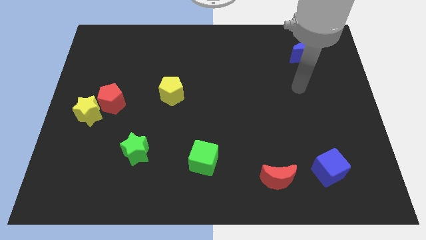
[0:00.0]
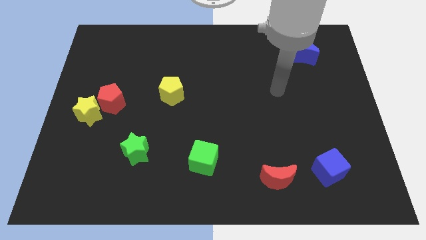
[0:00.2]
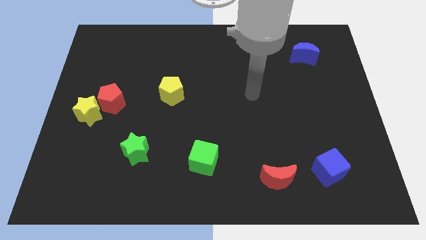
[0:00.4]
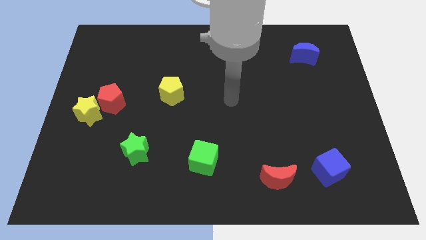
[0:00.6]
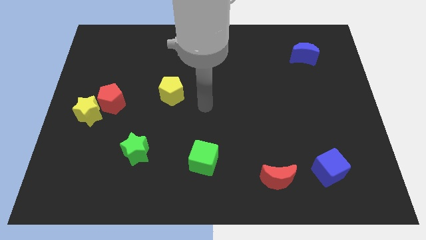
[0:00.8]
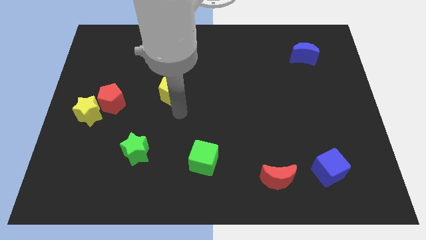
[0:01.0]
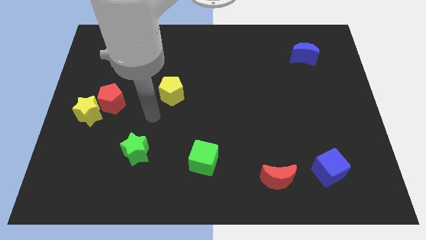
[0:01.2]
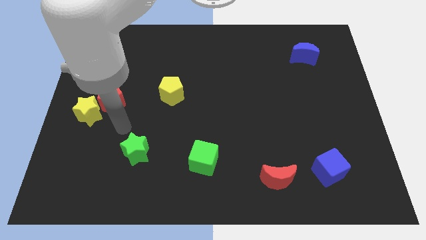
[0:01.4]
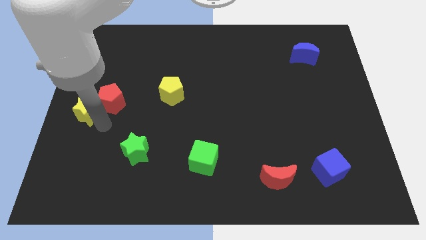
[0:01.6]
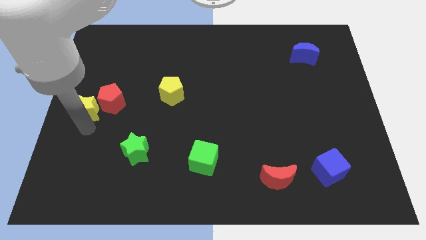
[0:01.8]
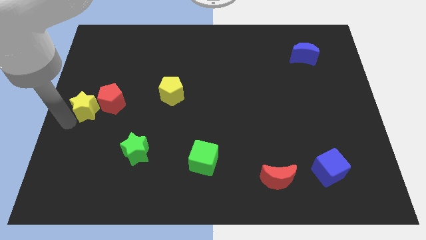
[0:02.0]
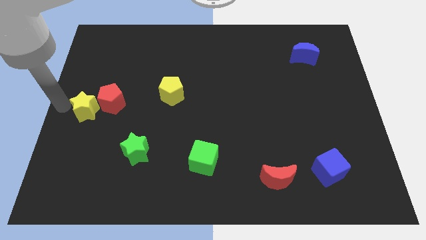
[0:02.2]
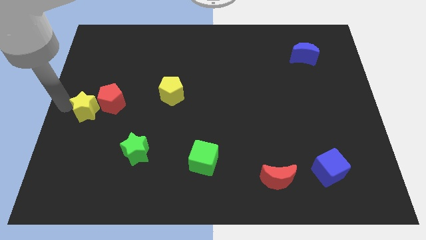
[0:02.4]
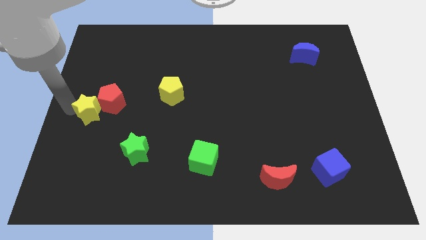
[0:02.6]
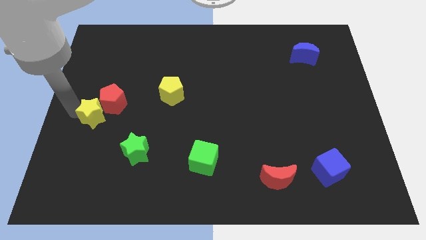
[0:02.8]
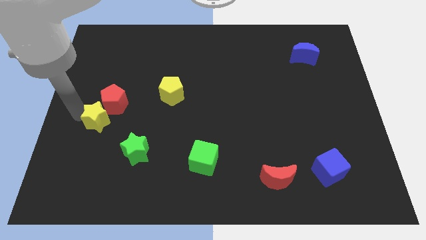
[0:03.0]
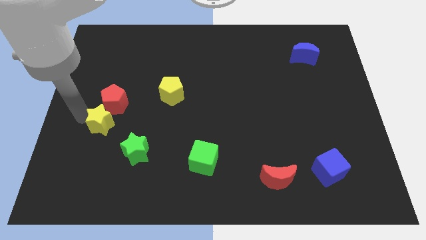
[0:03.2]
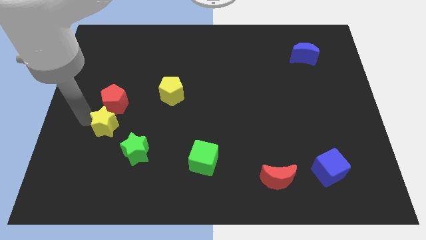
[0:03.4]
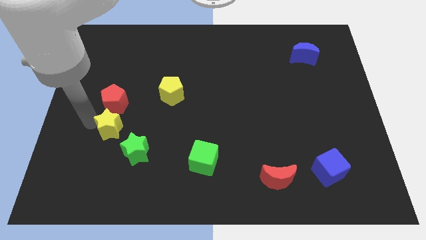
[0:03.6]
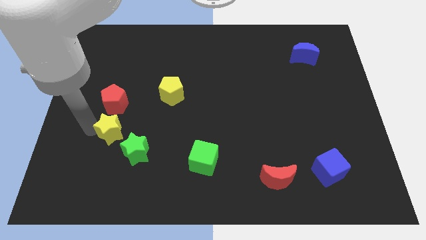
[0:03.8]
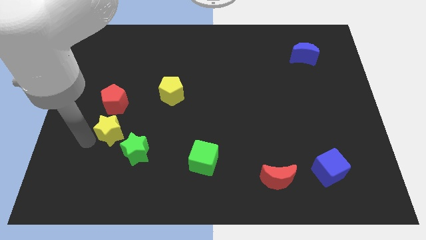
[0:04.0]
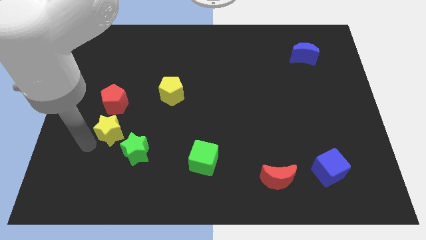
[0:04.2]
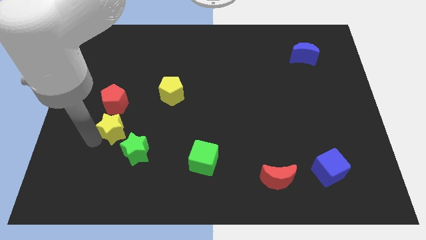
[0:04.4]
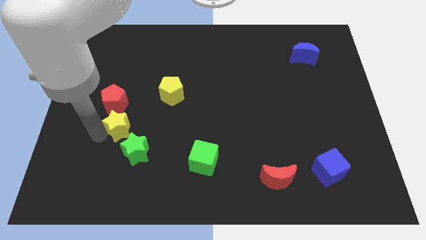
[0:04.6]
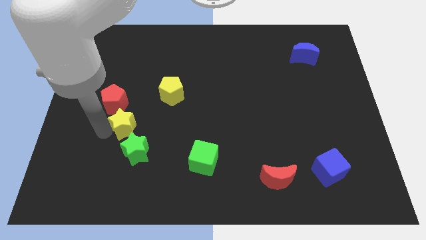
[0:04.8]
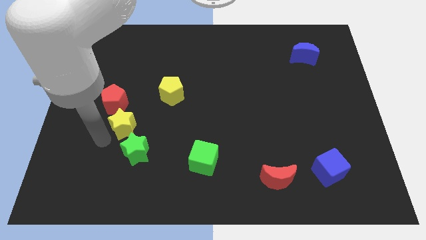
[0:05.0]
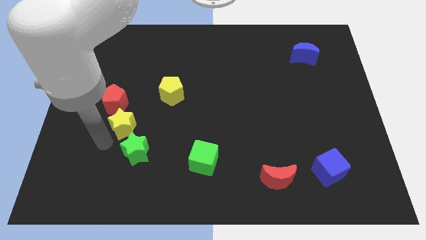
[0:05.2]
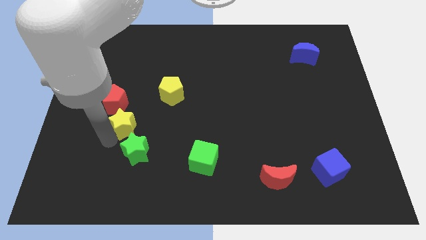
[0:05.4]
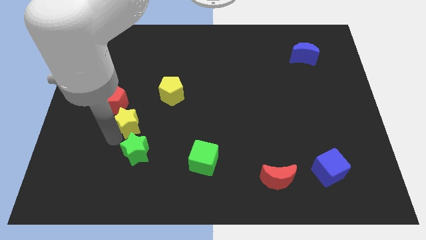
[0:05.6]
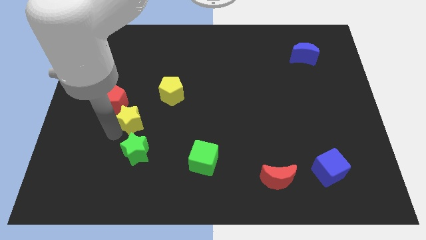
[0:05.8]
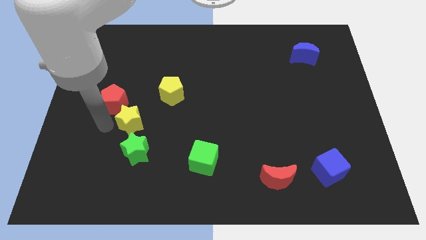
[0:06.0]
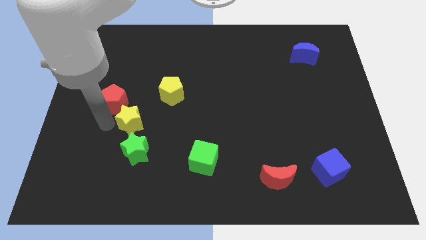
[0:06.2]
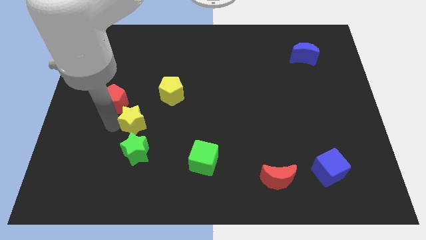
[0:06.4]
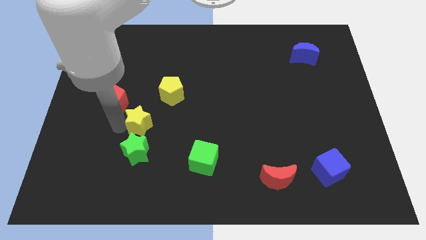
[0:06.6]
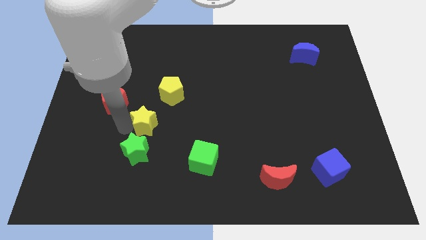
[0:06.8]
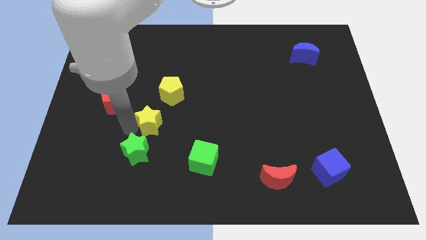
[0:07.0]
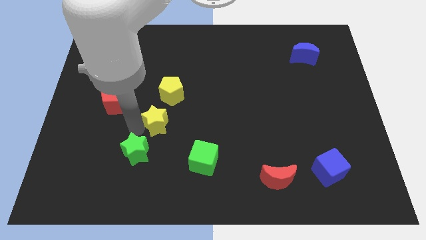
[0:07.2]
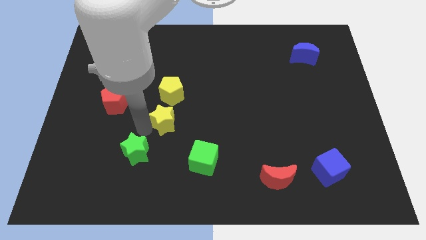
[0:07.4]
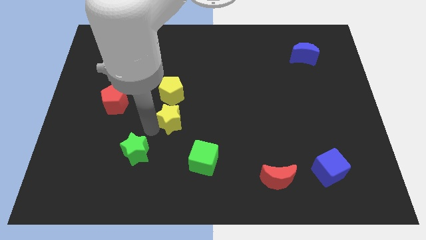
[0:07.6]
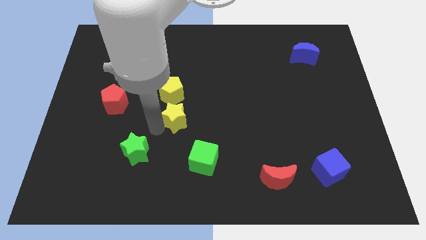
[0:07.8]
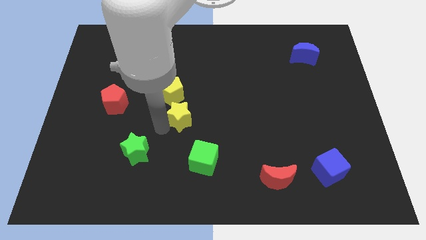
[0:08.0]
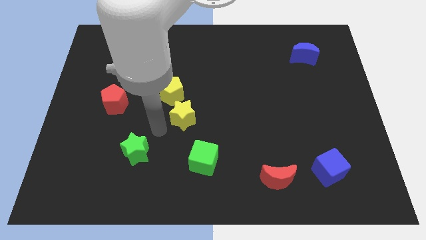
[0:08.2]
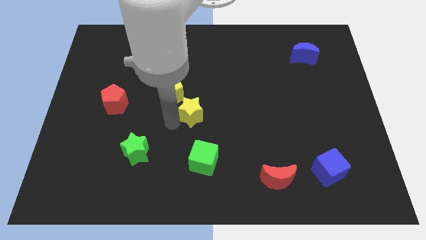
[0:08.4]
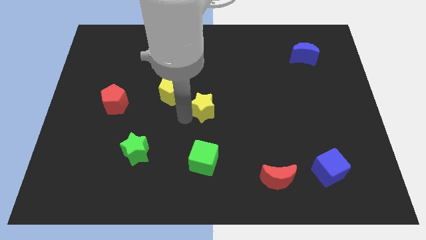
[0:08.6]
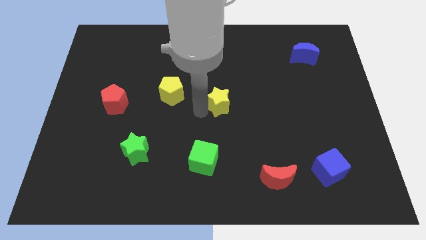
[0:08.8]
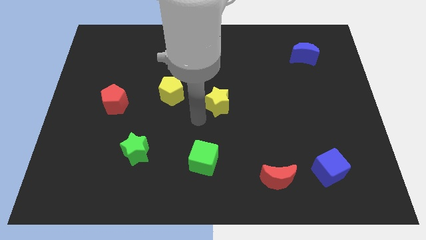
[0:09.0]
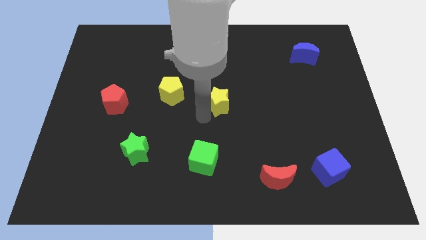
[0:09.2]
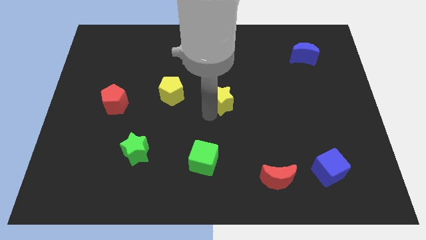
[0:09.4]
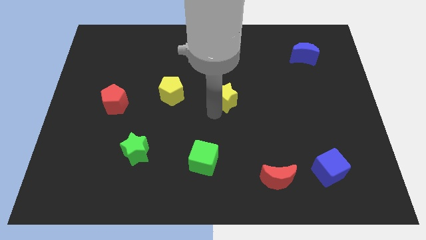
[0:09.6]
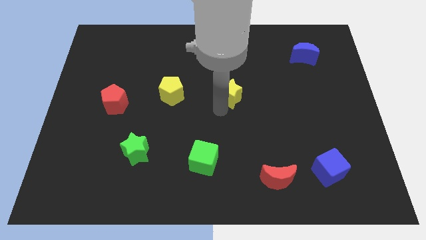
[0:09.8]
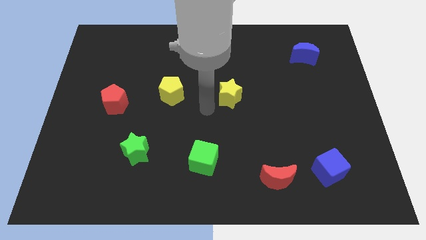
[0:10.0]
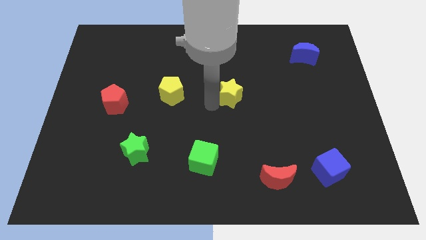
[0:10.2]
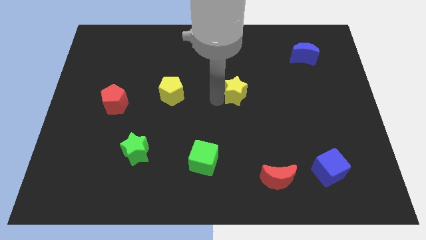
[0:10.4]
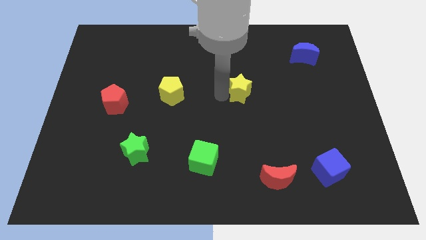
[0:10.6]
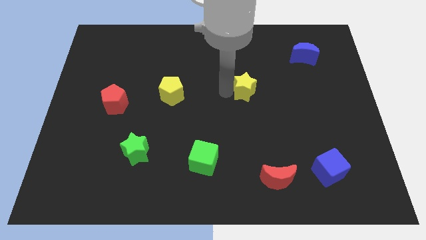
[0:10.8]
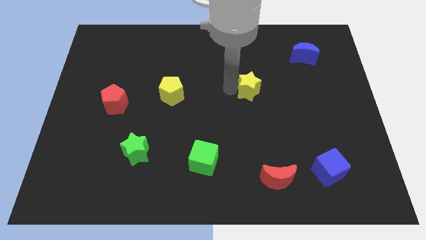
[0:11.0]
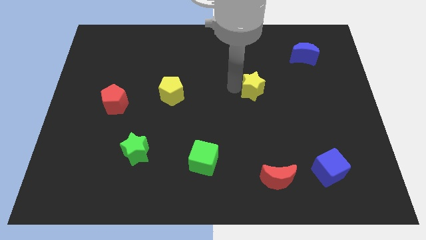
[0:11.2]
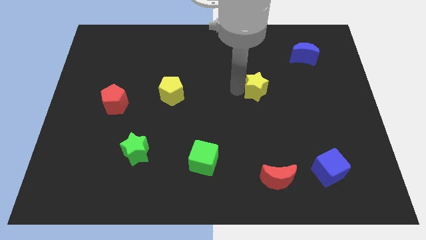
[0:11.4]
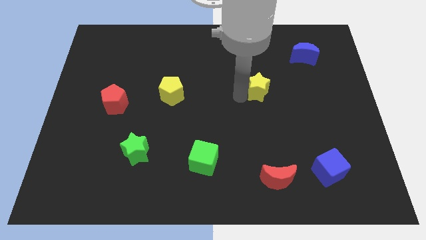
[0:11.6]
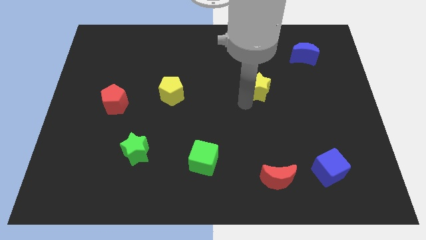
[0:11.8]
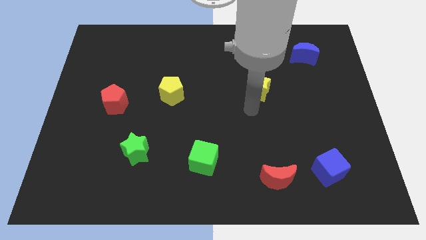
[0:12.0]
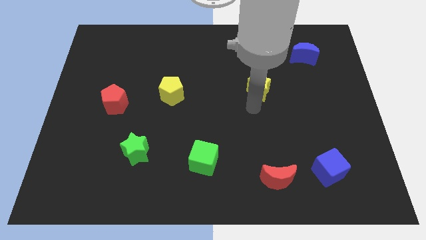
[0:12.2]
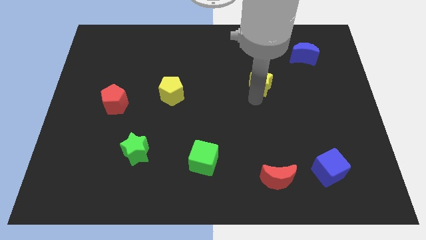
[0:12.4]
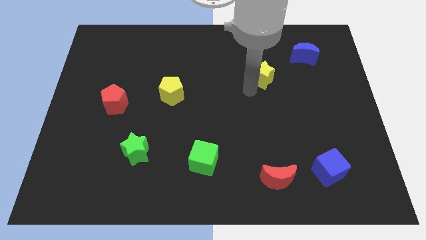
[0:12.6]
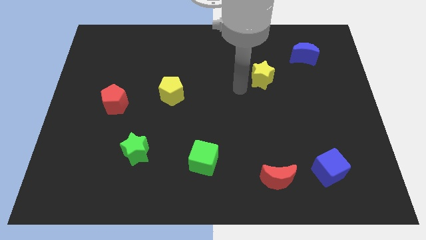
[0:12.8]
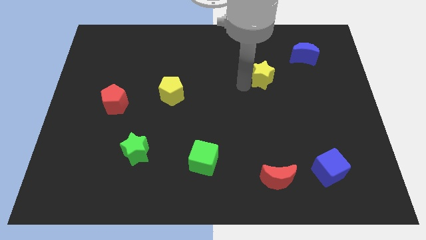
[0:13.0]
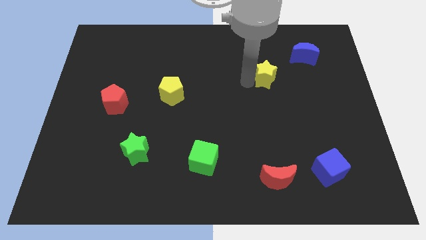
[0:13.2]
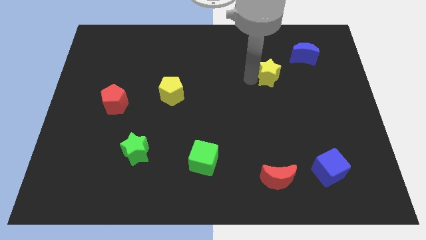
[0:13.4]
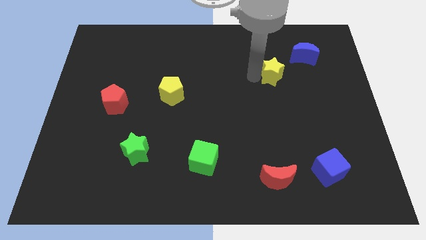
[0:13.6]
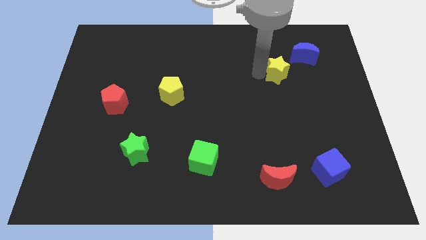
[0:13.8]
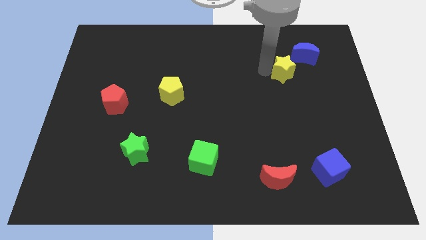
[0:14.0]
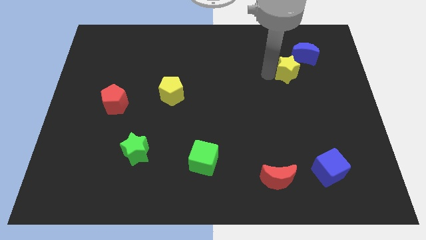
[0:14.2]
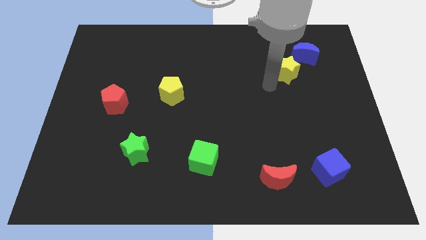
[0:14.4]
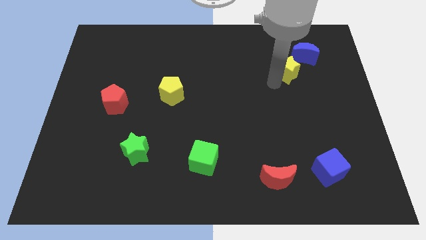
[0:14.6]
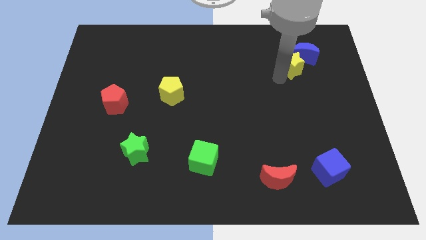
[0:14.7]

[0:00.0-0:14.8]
move the yellow star close to the blue moon
